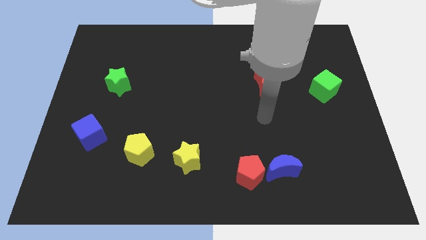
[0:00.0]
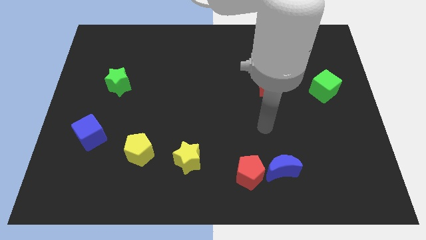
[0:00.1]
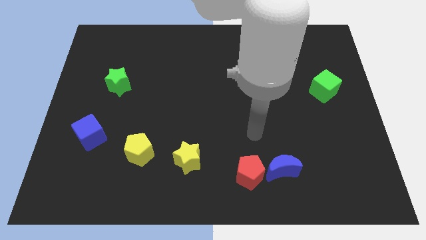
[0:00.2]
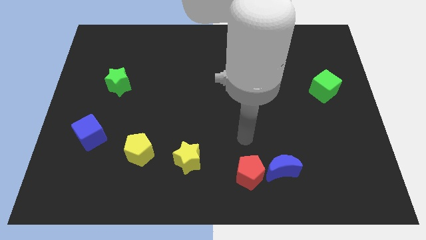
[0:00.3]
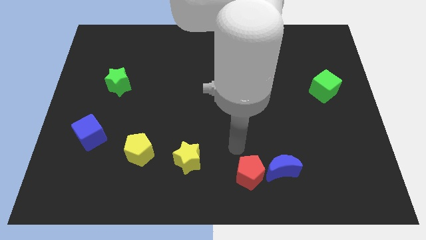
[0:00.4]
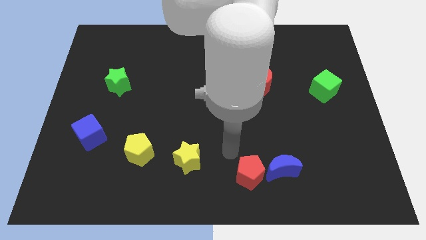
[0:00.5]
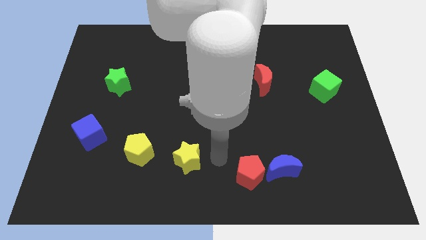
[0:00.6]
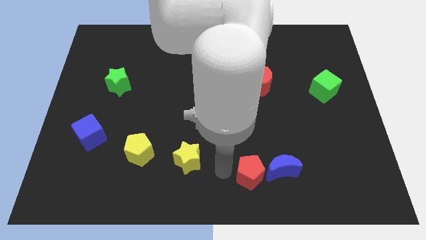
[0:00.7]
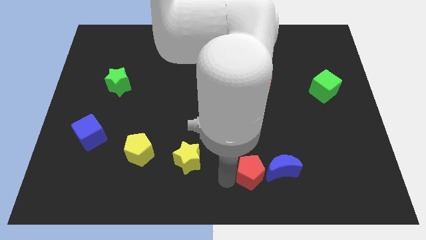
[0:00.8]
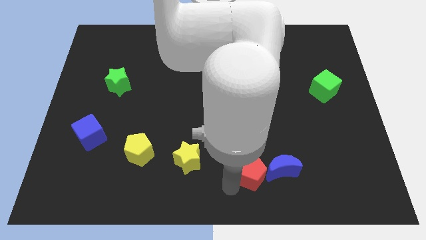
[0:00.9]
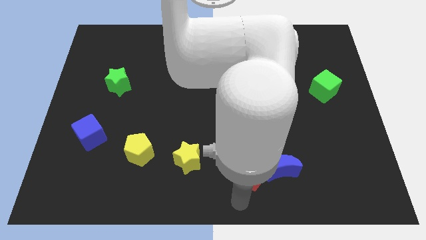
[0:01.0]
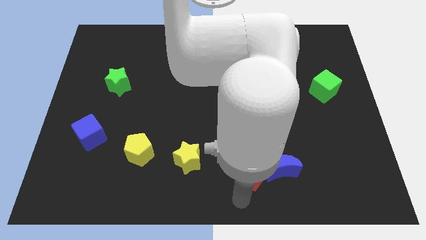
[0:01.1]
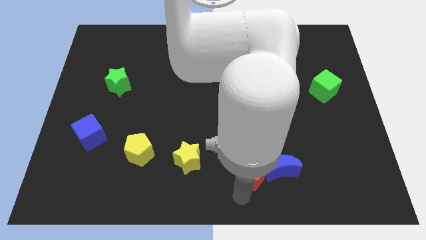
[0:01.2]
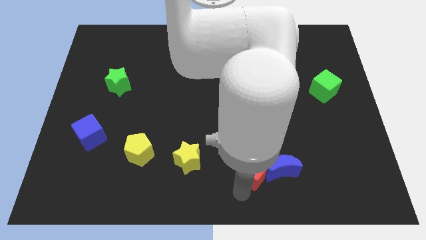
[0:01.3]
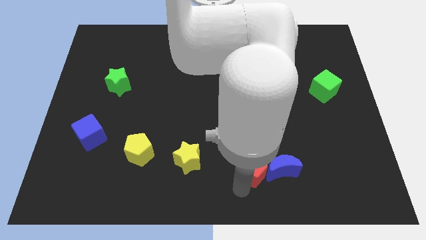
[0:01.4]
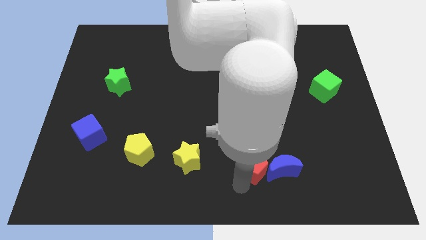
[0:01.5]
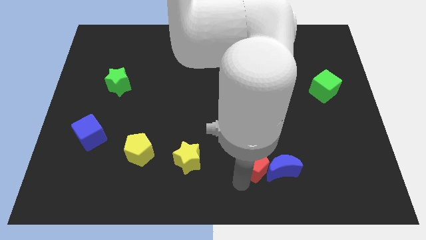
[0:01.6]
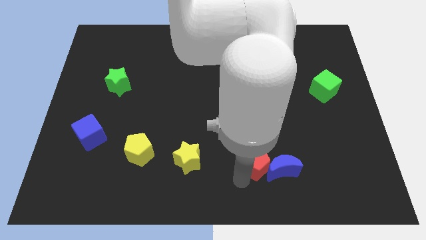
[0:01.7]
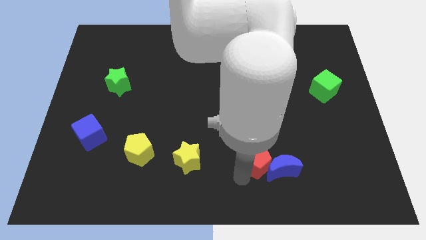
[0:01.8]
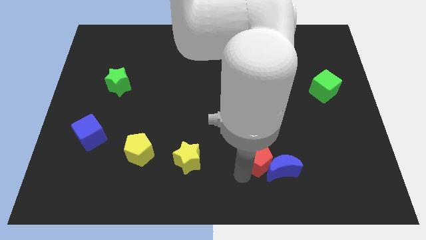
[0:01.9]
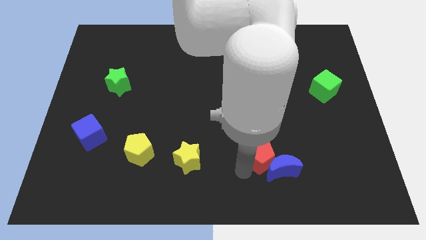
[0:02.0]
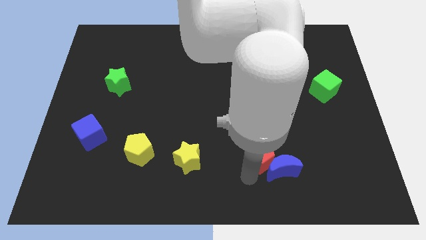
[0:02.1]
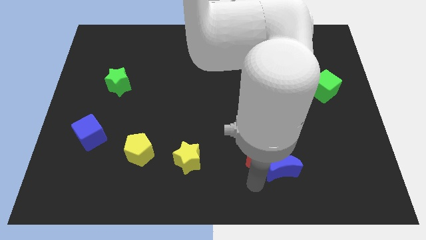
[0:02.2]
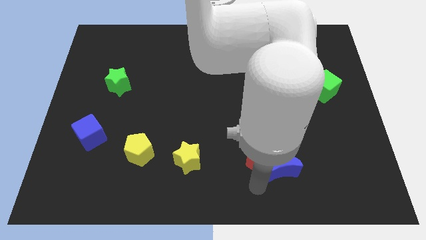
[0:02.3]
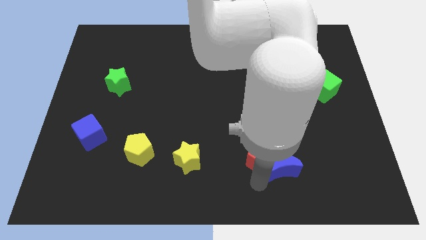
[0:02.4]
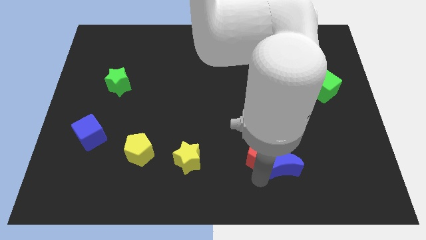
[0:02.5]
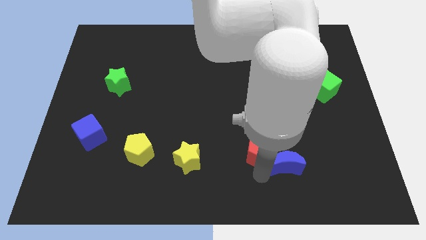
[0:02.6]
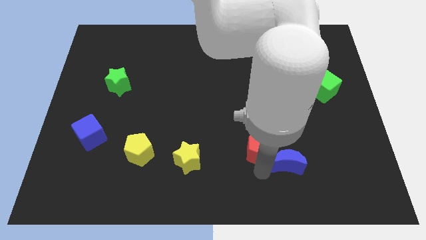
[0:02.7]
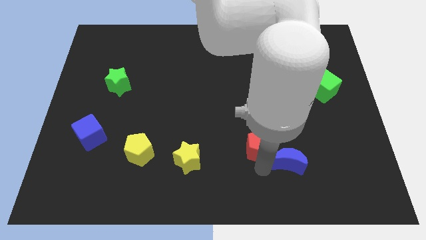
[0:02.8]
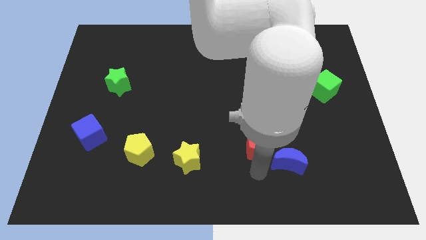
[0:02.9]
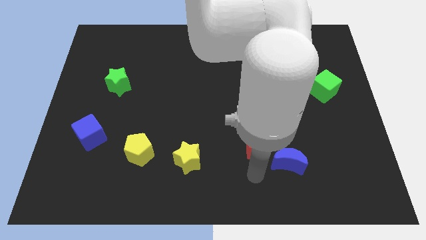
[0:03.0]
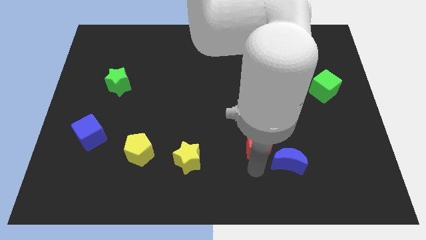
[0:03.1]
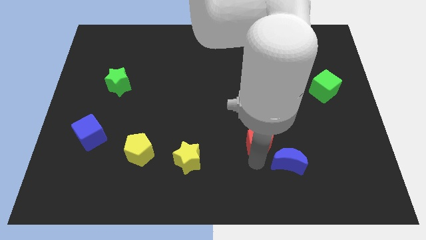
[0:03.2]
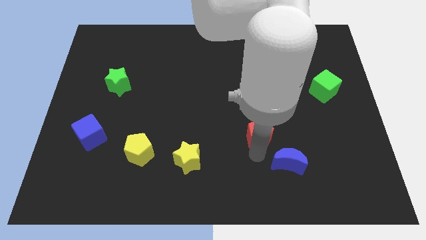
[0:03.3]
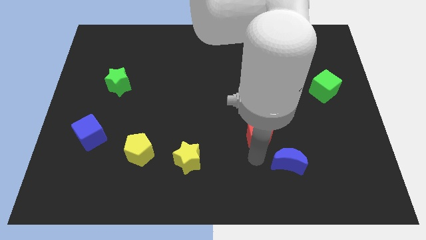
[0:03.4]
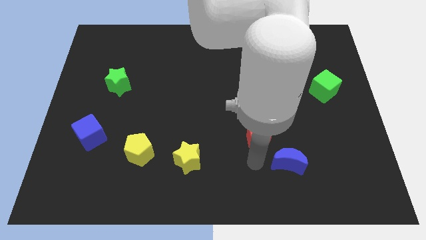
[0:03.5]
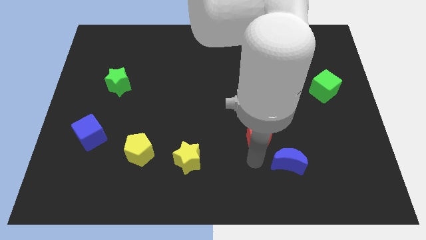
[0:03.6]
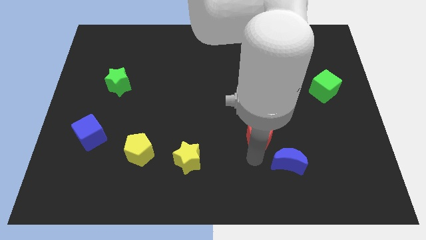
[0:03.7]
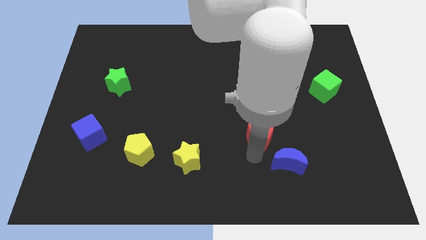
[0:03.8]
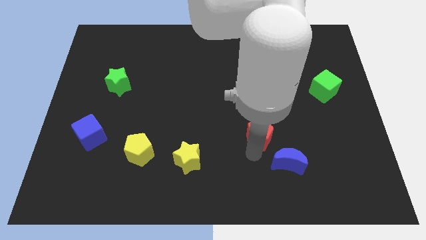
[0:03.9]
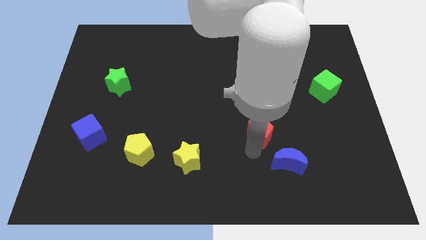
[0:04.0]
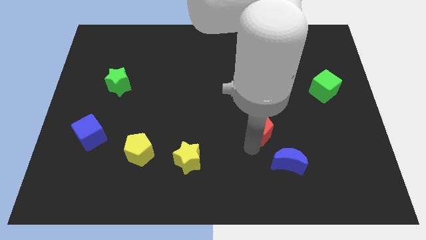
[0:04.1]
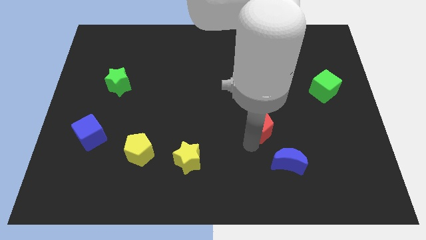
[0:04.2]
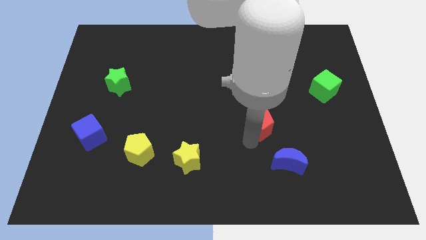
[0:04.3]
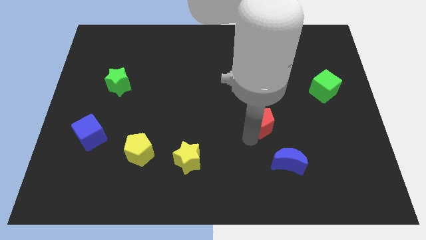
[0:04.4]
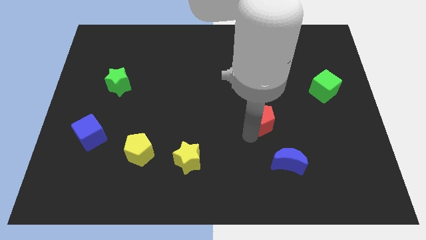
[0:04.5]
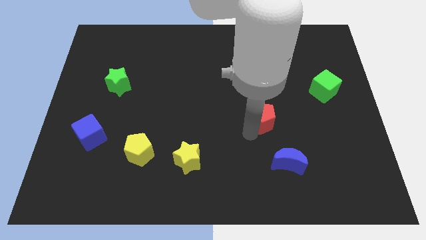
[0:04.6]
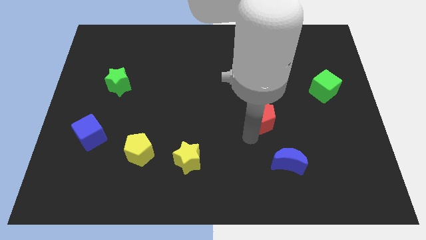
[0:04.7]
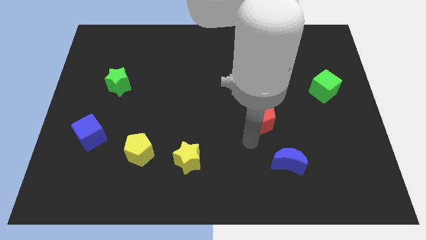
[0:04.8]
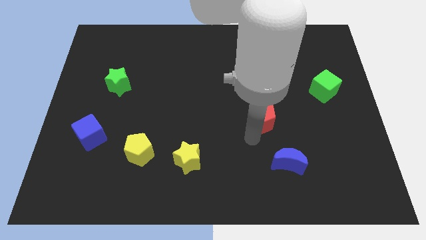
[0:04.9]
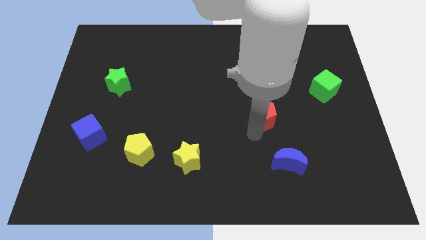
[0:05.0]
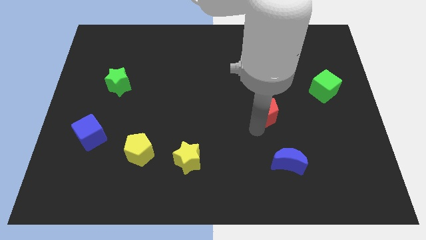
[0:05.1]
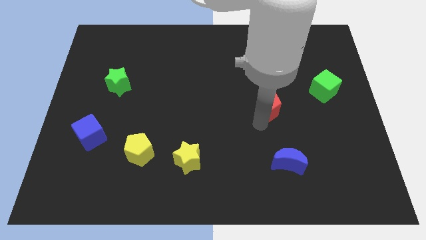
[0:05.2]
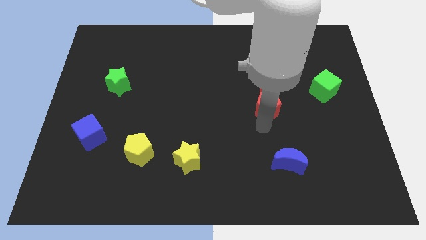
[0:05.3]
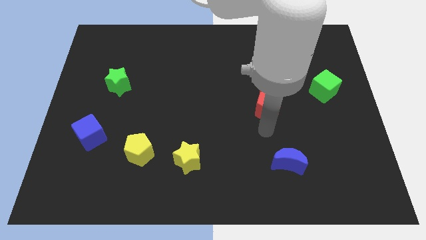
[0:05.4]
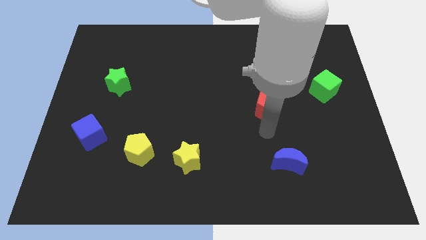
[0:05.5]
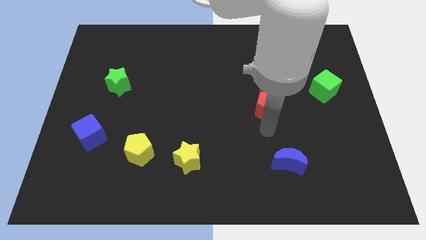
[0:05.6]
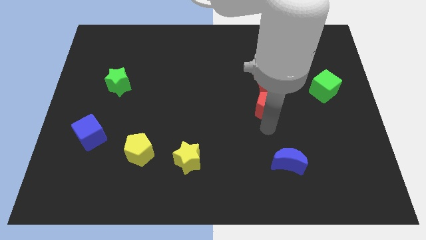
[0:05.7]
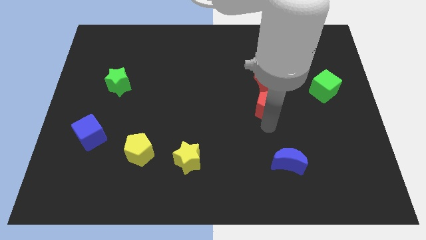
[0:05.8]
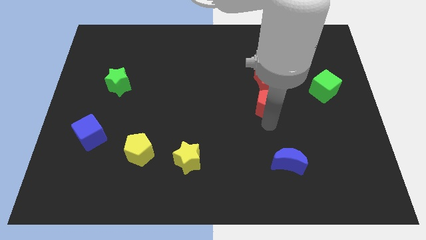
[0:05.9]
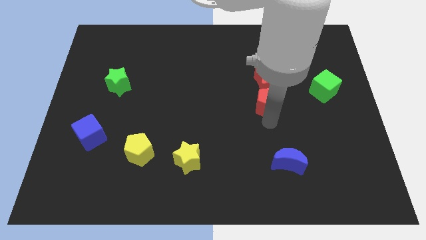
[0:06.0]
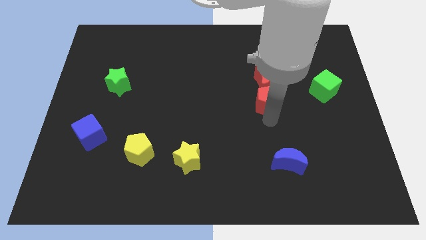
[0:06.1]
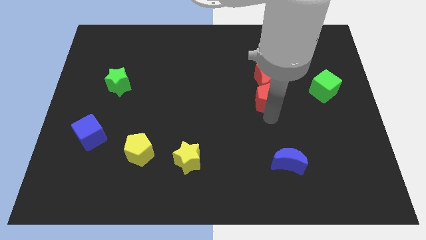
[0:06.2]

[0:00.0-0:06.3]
slide the red pentagon next to the red moon
